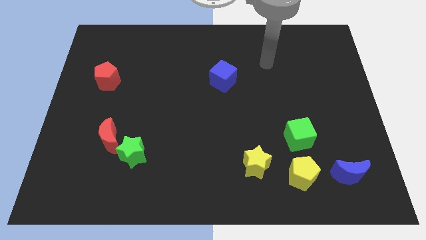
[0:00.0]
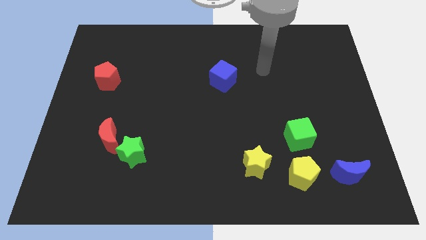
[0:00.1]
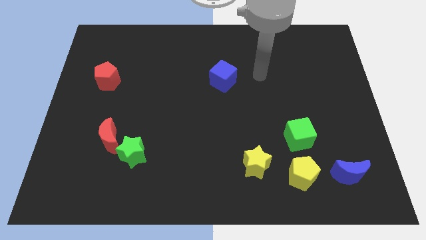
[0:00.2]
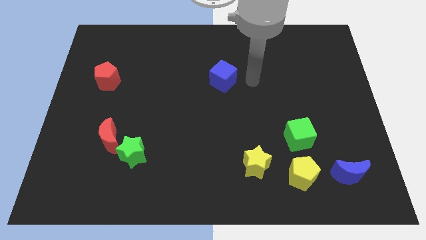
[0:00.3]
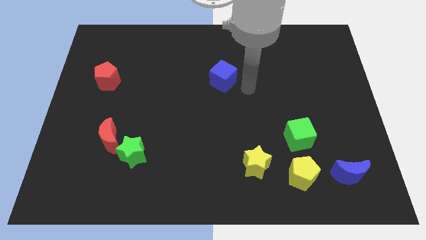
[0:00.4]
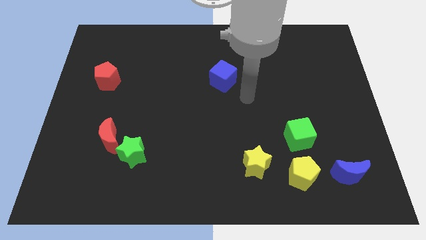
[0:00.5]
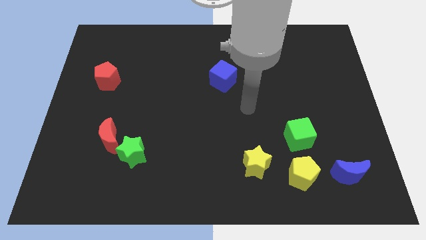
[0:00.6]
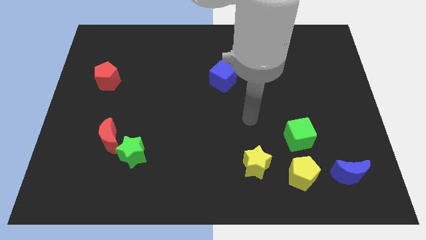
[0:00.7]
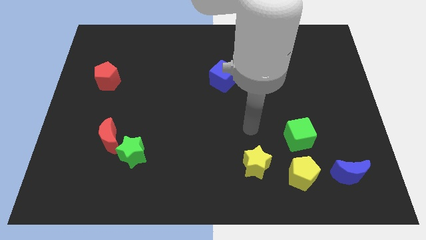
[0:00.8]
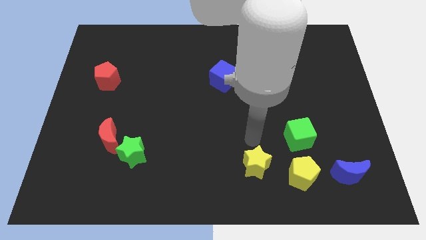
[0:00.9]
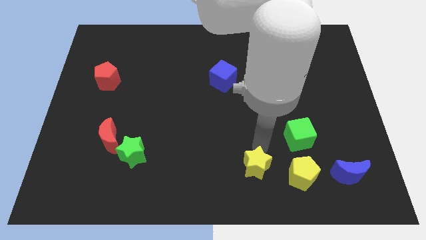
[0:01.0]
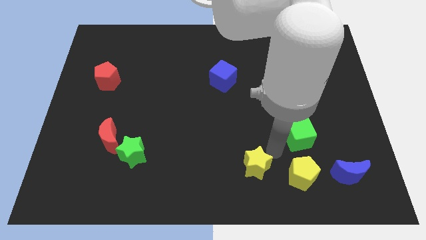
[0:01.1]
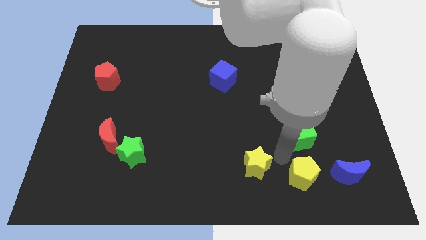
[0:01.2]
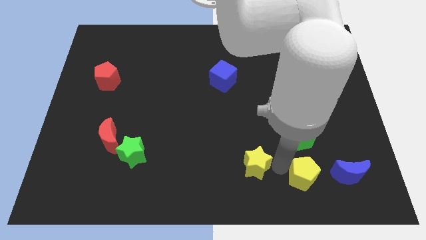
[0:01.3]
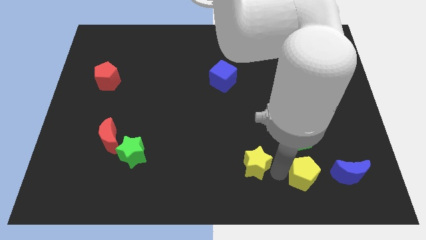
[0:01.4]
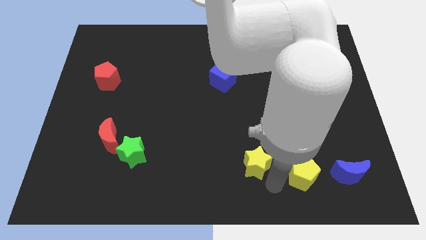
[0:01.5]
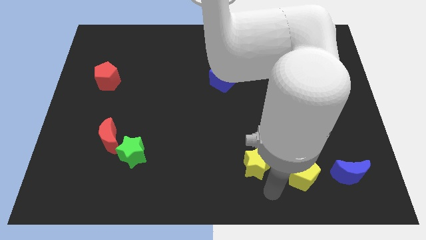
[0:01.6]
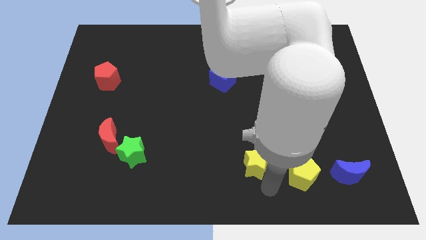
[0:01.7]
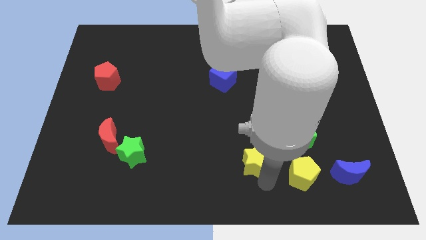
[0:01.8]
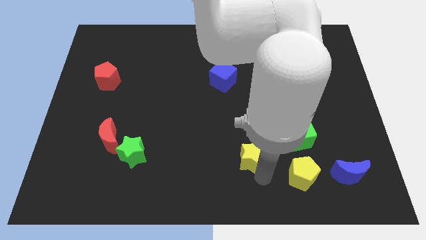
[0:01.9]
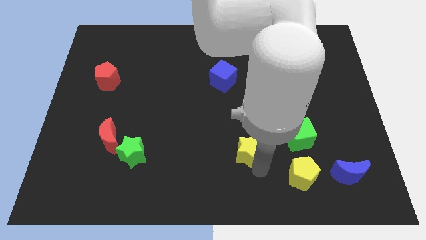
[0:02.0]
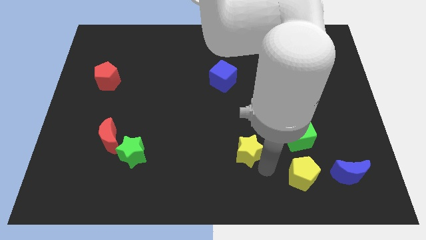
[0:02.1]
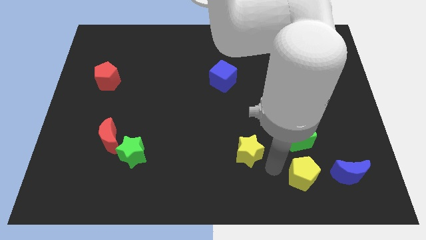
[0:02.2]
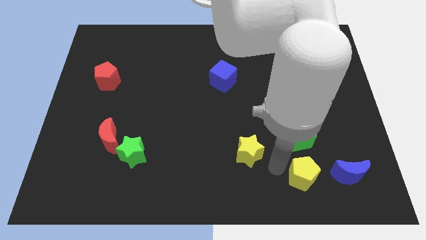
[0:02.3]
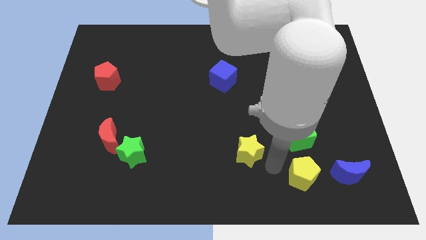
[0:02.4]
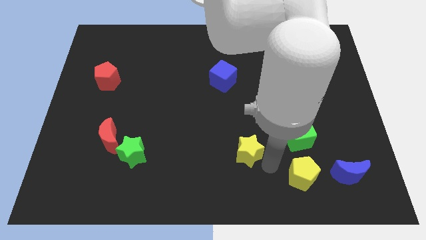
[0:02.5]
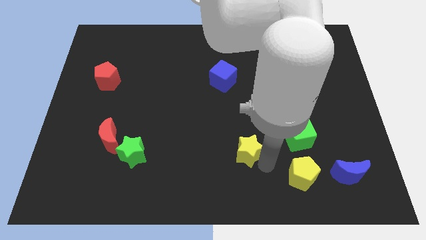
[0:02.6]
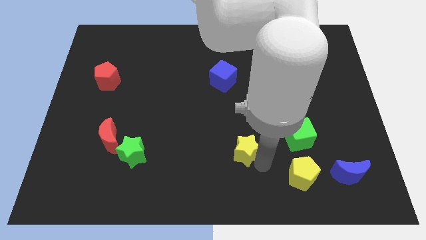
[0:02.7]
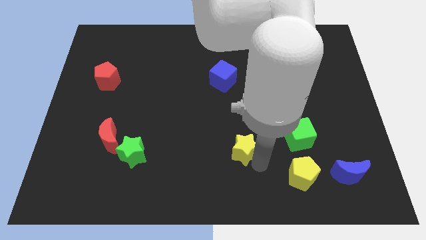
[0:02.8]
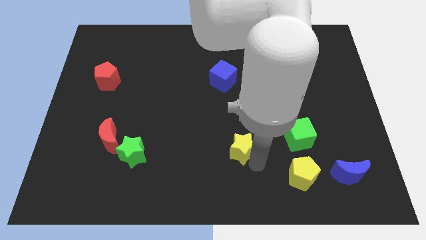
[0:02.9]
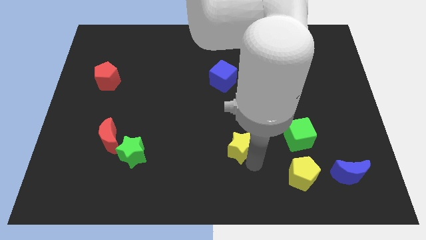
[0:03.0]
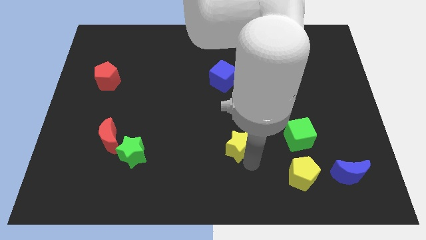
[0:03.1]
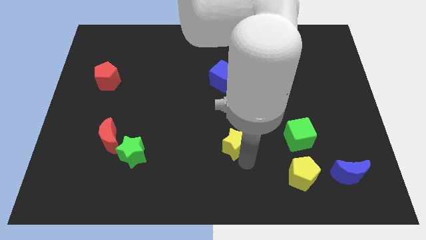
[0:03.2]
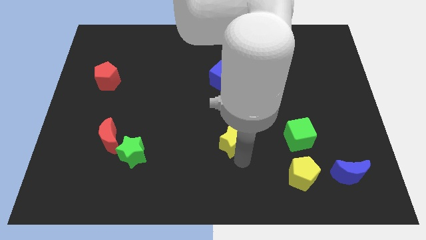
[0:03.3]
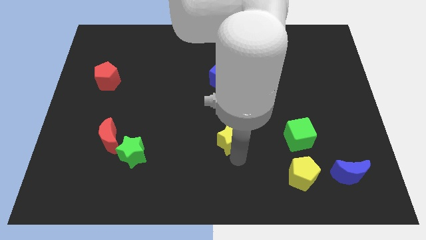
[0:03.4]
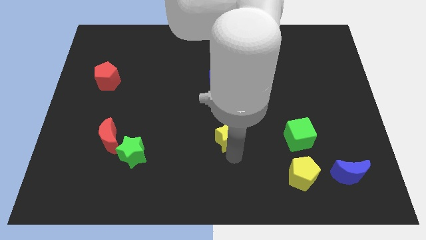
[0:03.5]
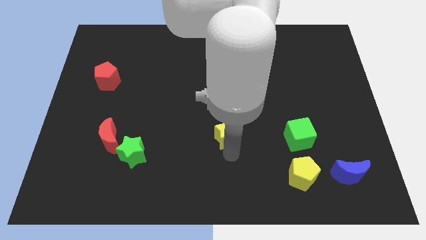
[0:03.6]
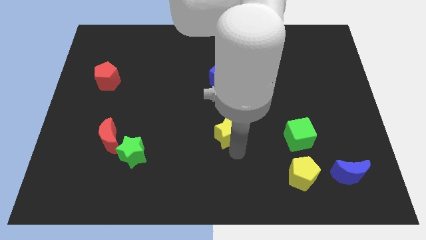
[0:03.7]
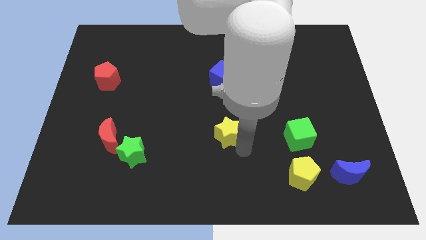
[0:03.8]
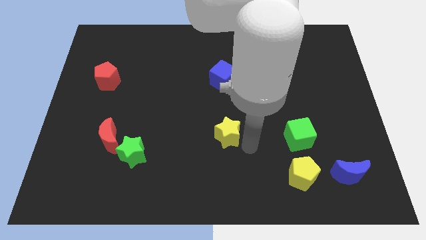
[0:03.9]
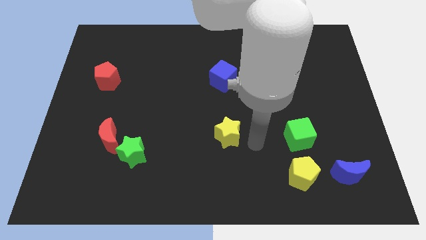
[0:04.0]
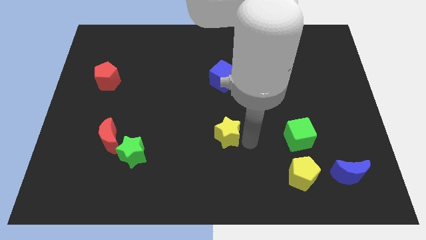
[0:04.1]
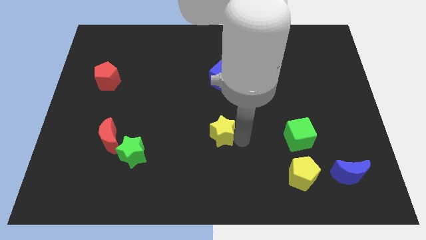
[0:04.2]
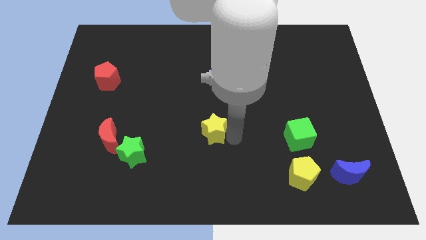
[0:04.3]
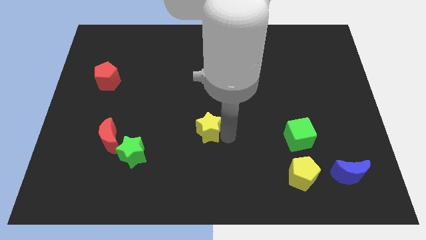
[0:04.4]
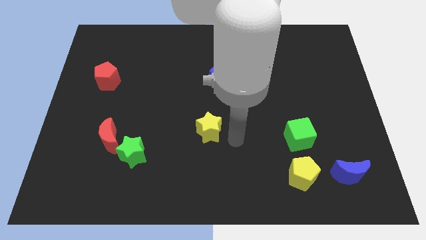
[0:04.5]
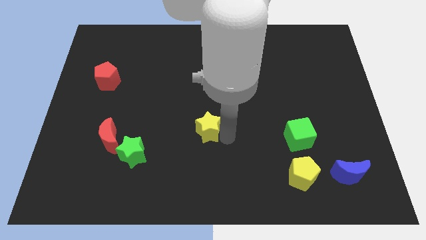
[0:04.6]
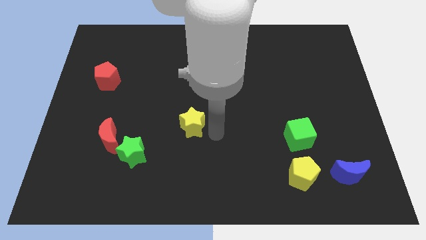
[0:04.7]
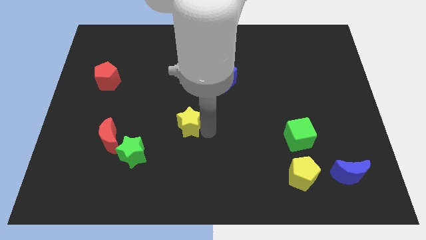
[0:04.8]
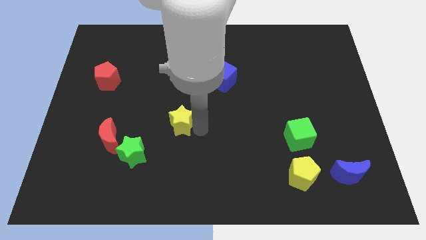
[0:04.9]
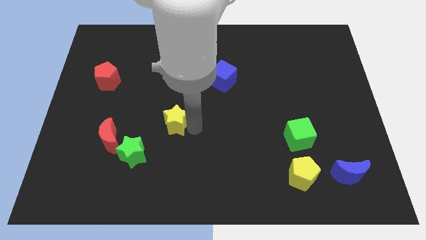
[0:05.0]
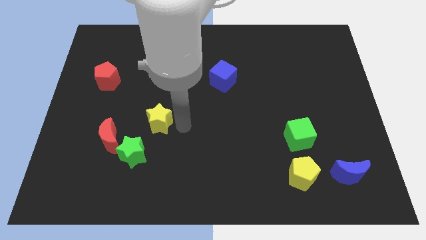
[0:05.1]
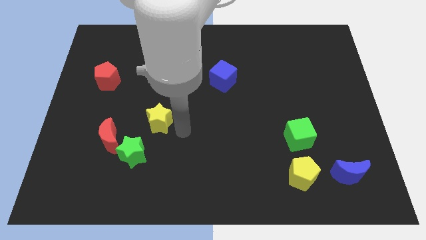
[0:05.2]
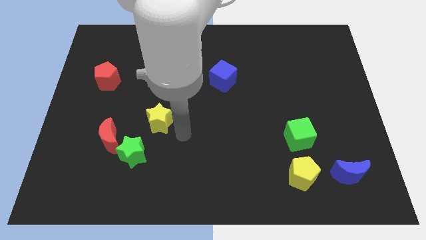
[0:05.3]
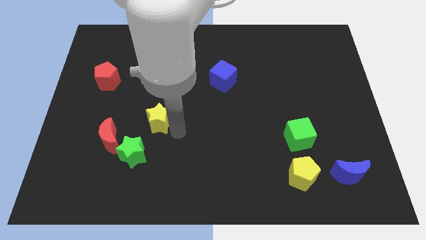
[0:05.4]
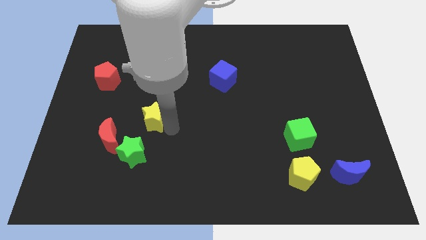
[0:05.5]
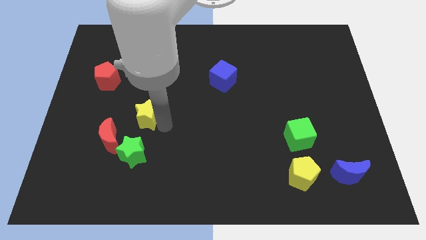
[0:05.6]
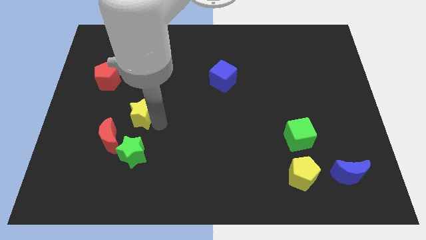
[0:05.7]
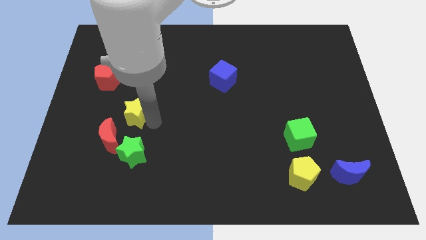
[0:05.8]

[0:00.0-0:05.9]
slide the yellow star above the red moon

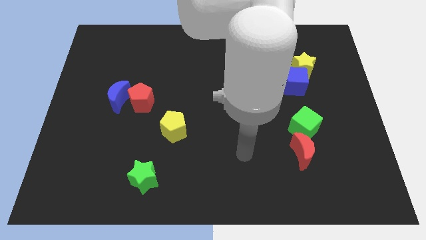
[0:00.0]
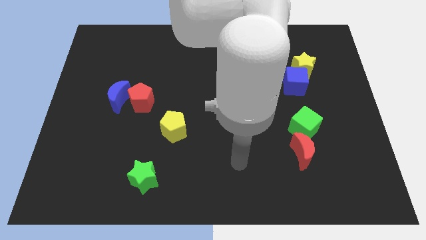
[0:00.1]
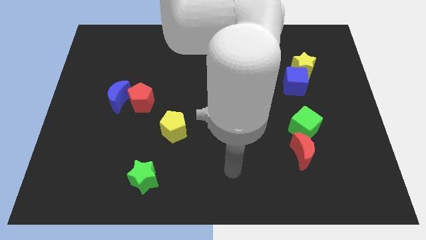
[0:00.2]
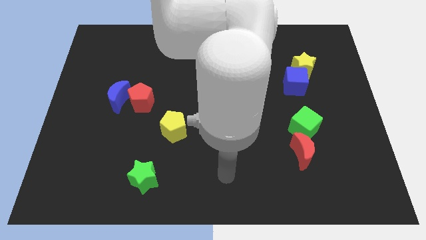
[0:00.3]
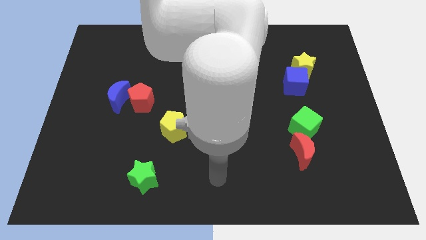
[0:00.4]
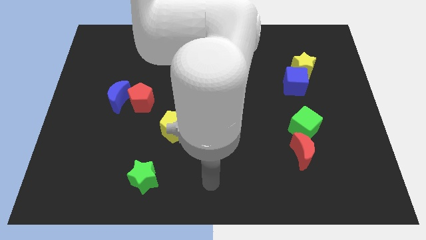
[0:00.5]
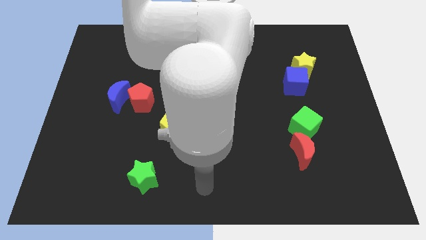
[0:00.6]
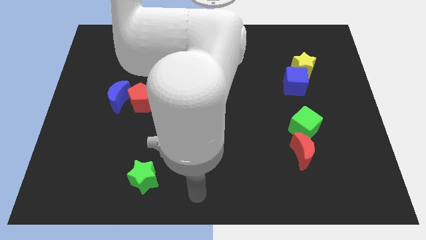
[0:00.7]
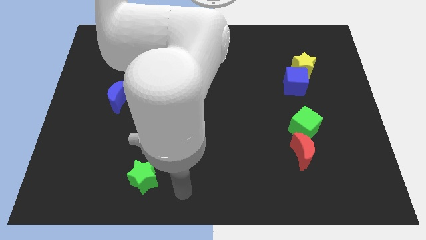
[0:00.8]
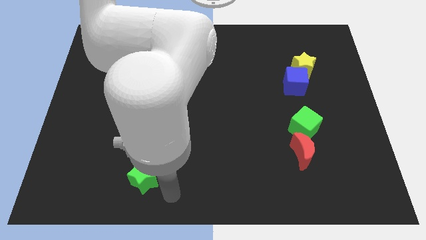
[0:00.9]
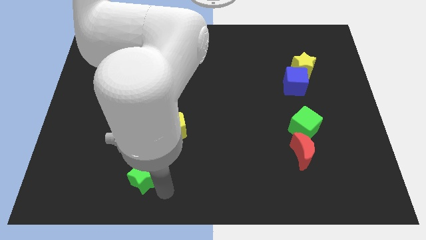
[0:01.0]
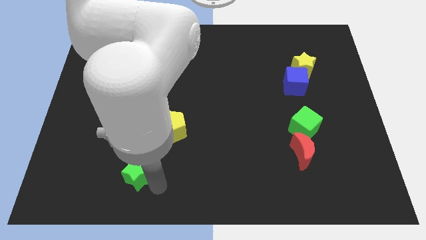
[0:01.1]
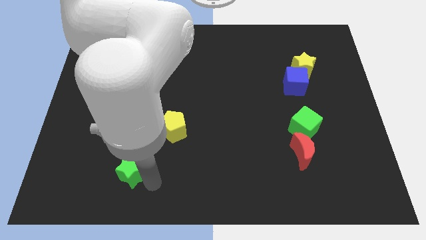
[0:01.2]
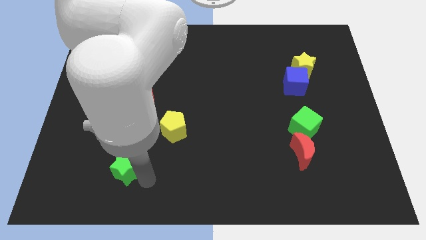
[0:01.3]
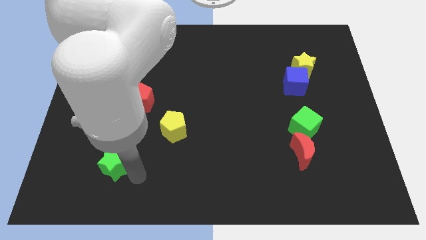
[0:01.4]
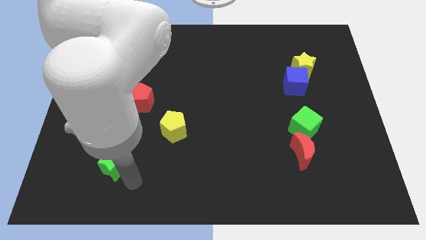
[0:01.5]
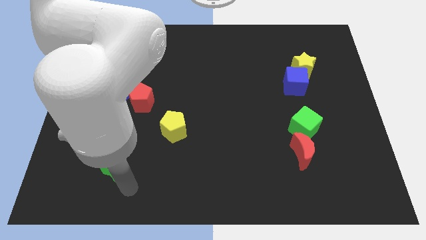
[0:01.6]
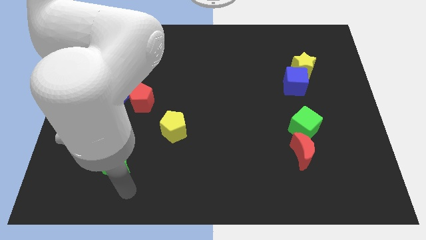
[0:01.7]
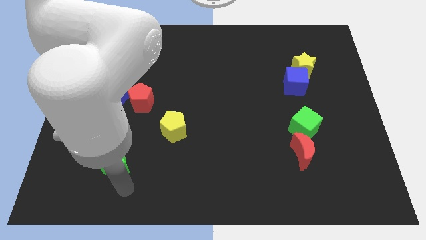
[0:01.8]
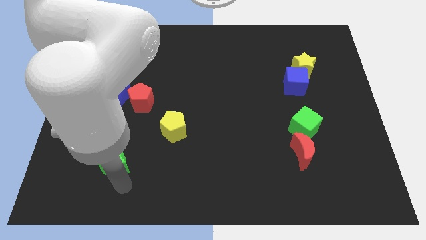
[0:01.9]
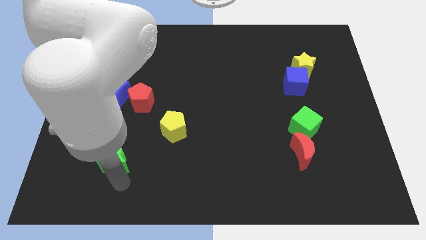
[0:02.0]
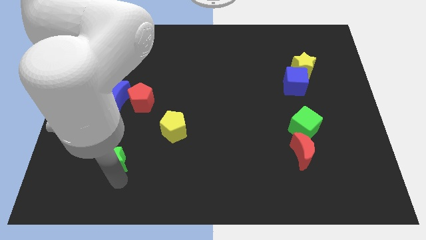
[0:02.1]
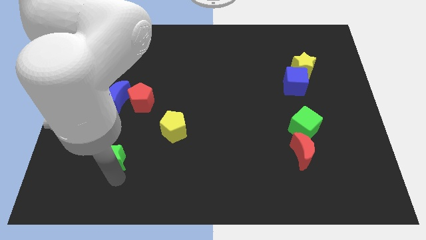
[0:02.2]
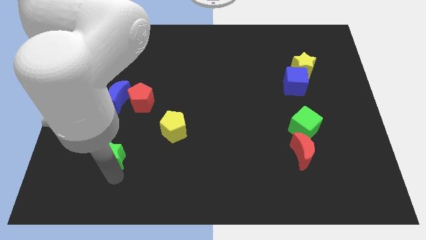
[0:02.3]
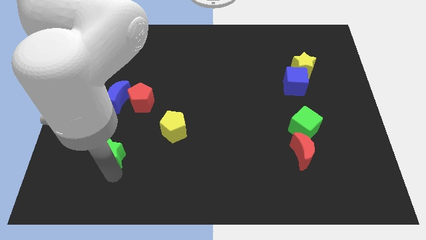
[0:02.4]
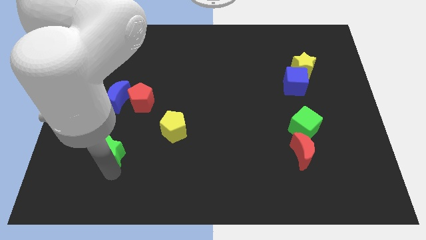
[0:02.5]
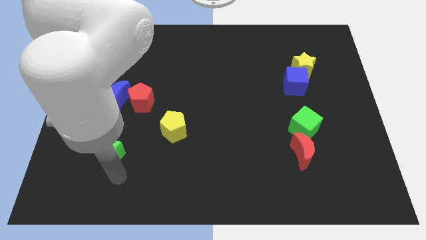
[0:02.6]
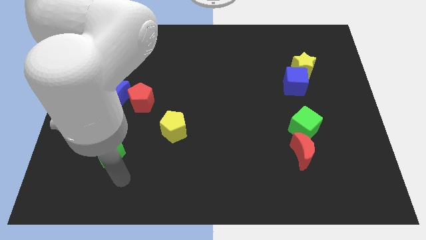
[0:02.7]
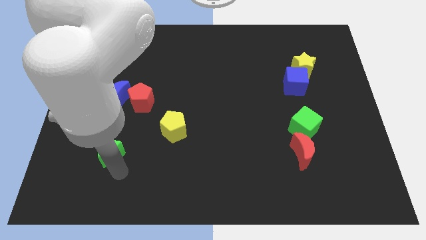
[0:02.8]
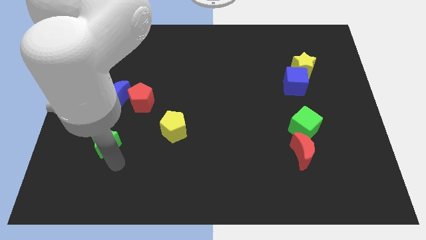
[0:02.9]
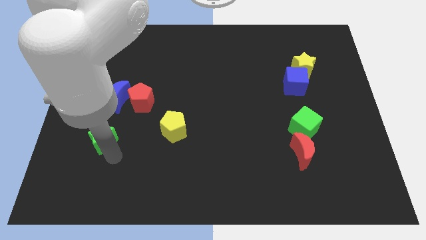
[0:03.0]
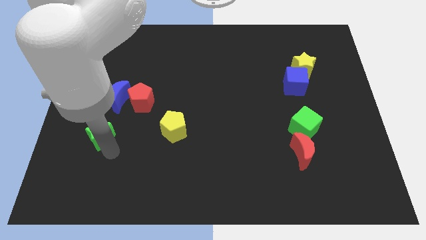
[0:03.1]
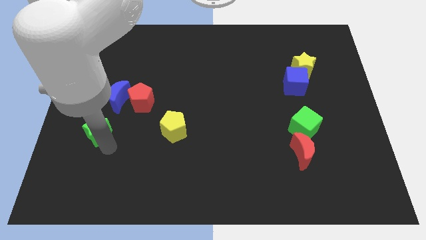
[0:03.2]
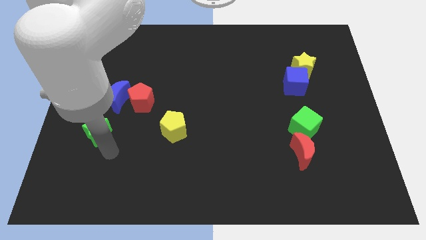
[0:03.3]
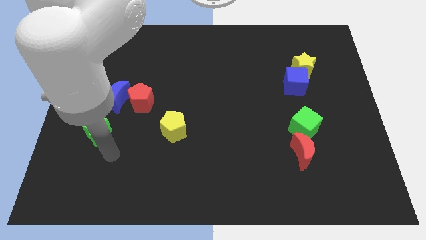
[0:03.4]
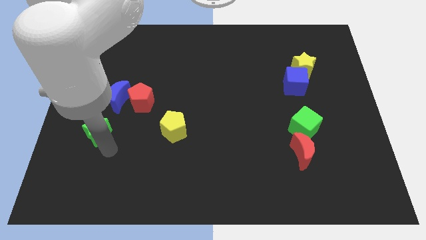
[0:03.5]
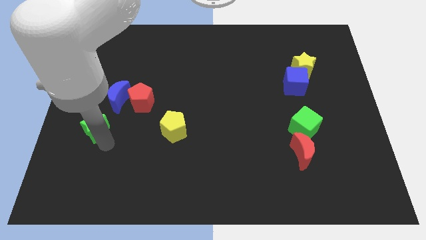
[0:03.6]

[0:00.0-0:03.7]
put the green star to the bottom left of the blue moon
